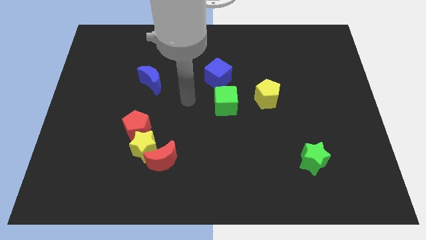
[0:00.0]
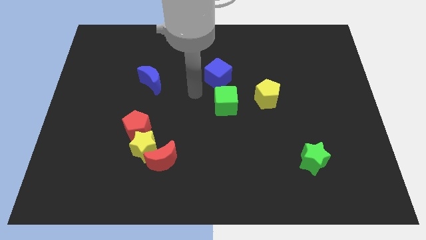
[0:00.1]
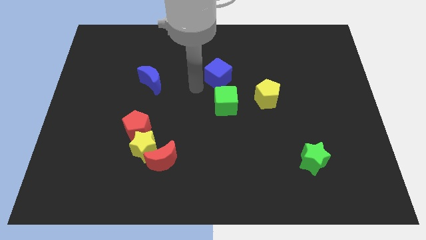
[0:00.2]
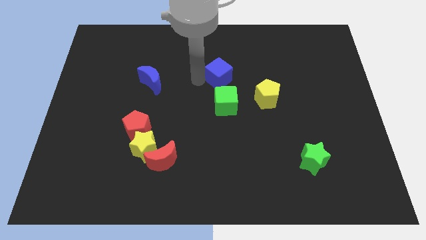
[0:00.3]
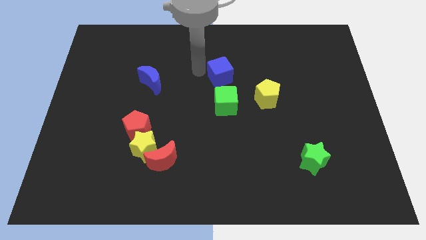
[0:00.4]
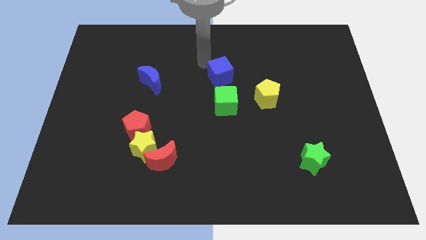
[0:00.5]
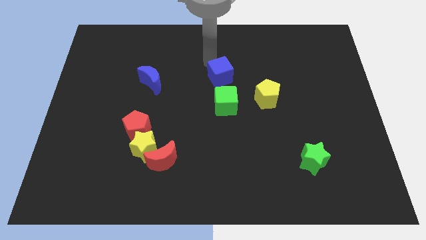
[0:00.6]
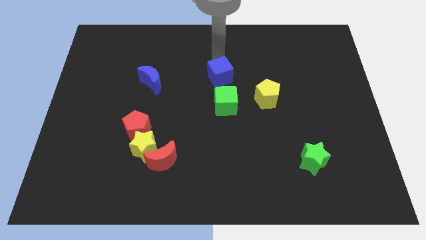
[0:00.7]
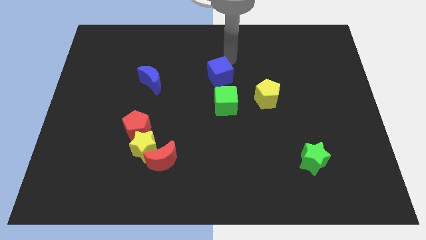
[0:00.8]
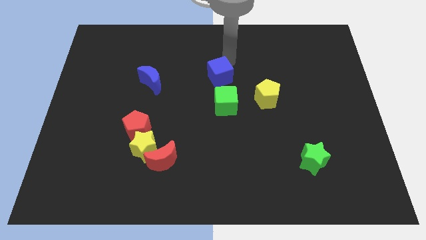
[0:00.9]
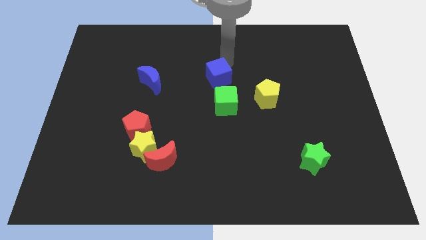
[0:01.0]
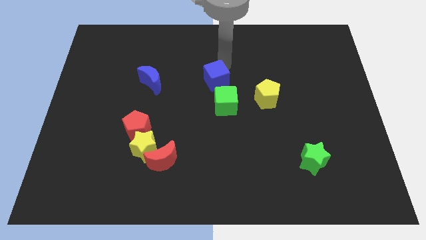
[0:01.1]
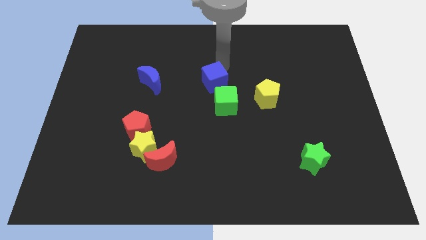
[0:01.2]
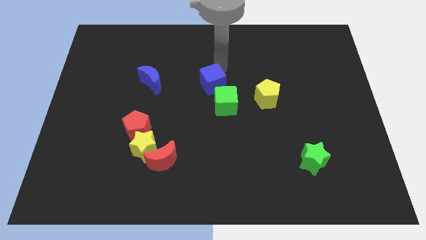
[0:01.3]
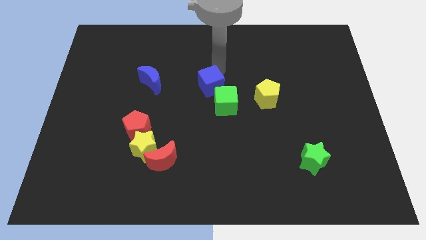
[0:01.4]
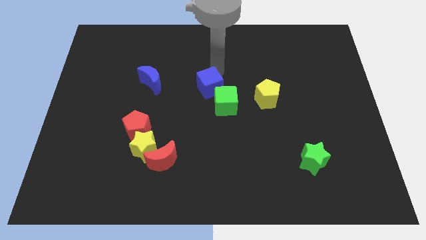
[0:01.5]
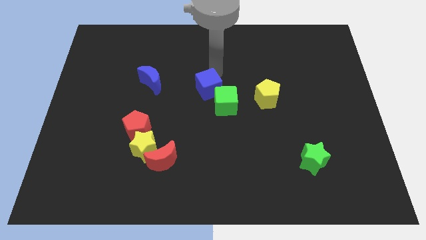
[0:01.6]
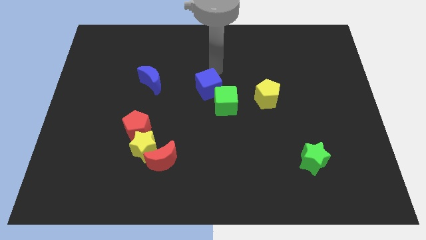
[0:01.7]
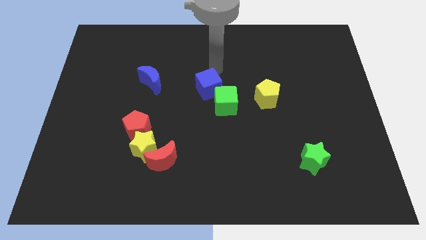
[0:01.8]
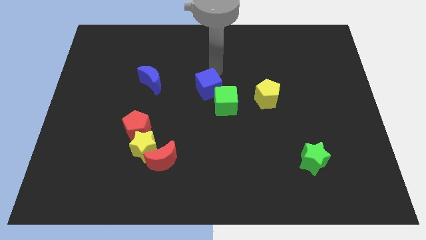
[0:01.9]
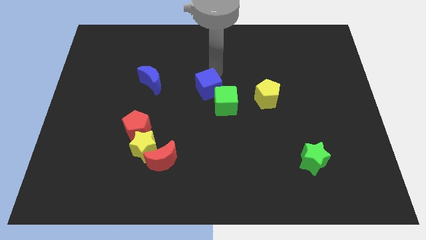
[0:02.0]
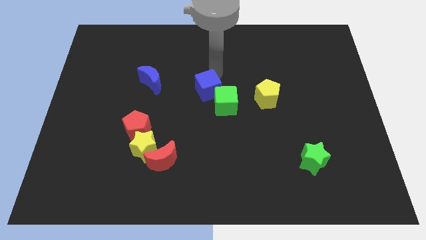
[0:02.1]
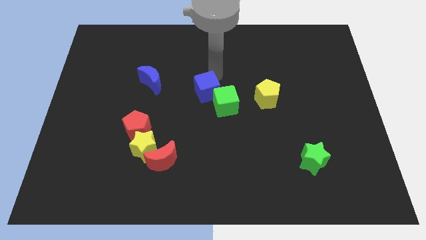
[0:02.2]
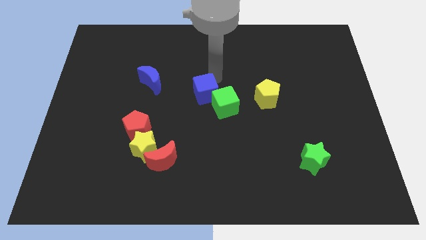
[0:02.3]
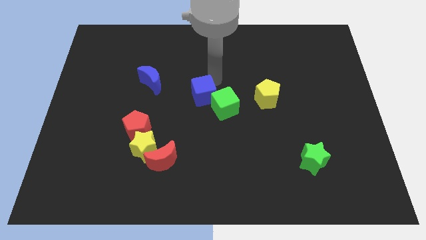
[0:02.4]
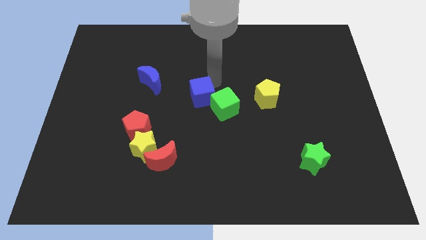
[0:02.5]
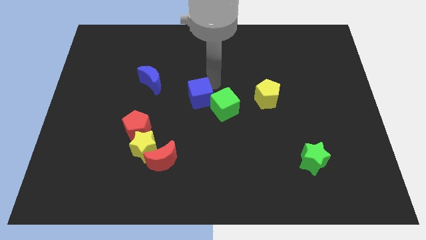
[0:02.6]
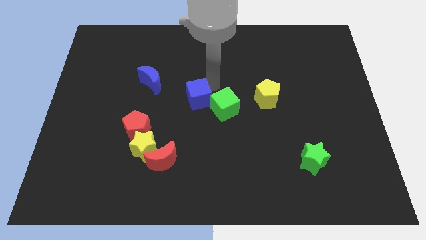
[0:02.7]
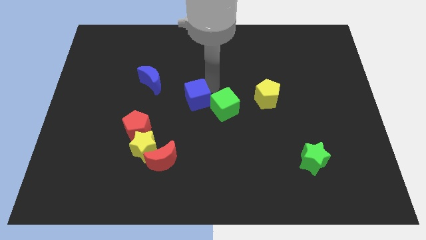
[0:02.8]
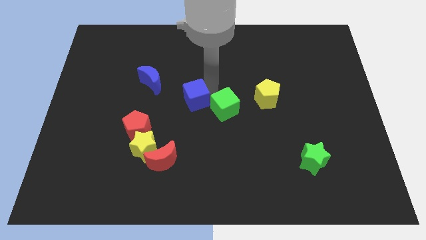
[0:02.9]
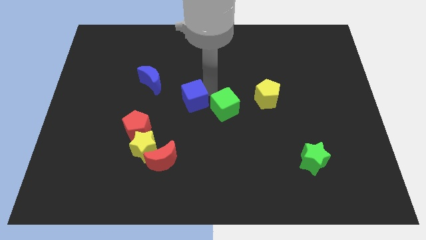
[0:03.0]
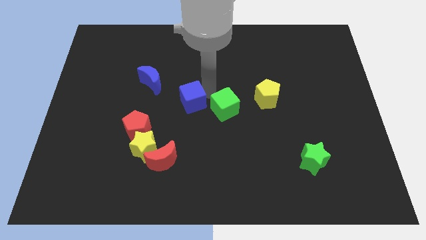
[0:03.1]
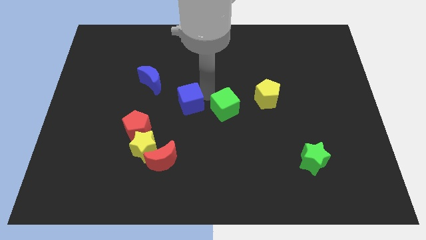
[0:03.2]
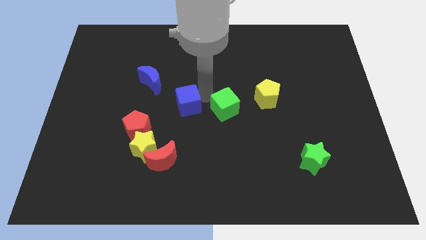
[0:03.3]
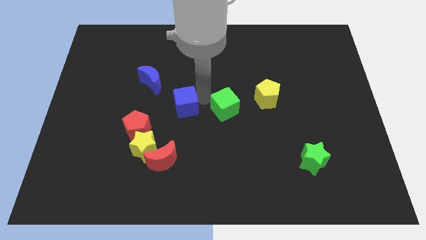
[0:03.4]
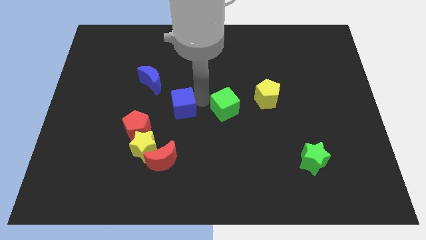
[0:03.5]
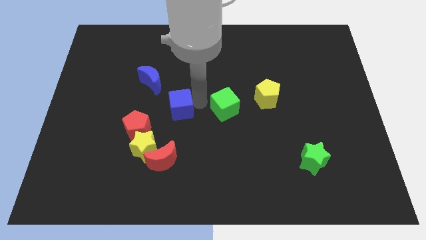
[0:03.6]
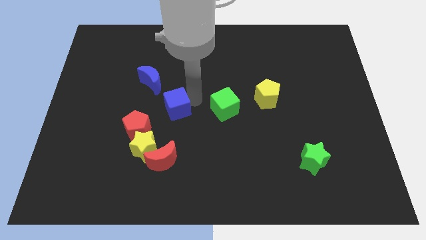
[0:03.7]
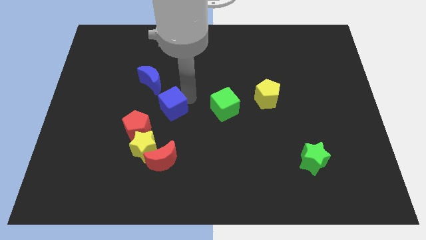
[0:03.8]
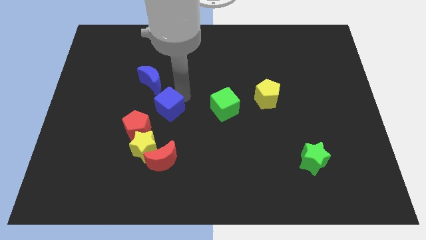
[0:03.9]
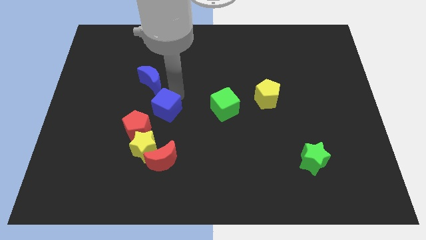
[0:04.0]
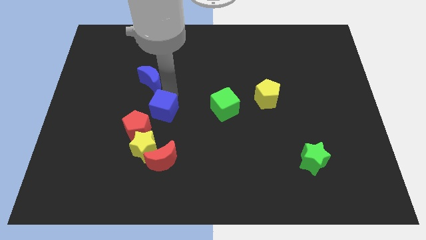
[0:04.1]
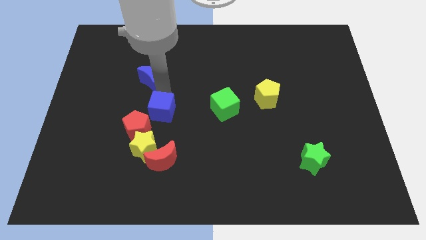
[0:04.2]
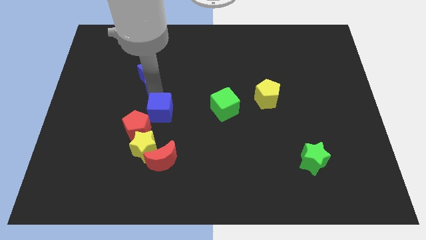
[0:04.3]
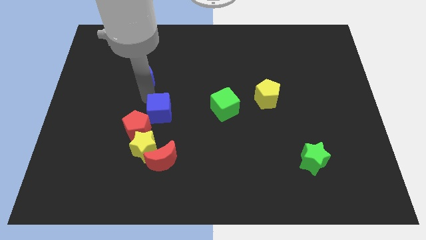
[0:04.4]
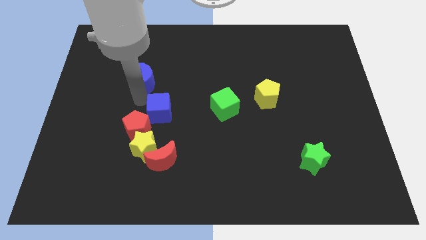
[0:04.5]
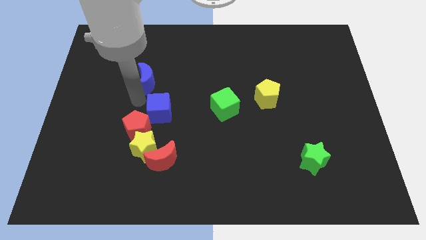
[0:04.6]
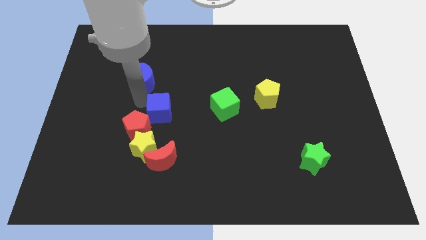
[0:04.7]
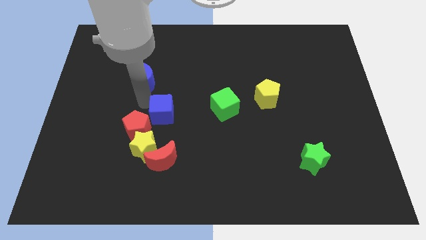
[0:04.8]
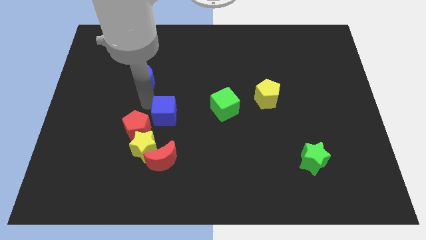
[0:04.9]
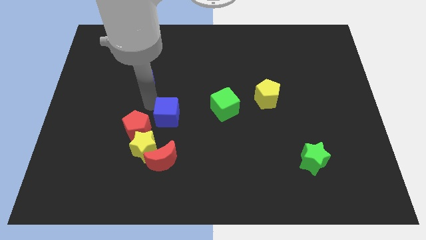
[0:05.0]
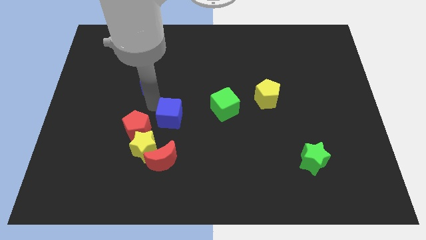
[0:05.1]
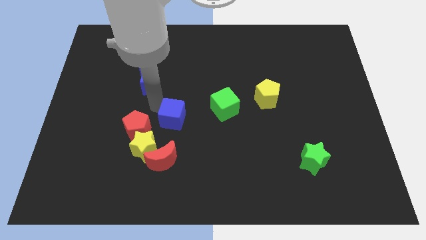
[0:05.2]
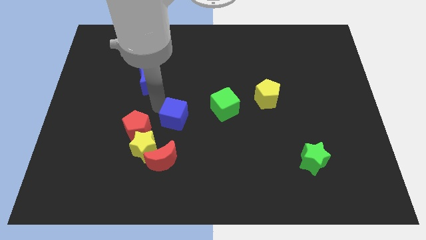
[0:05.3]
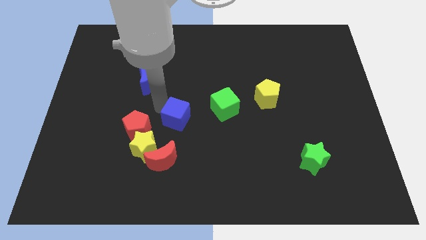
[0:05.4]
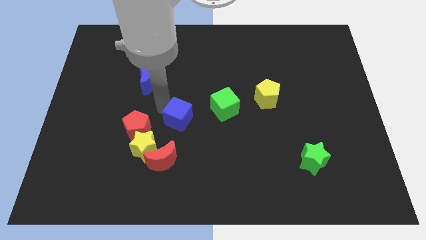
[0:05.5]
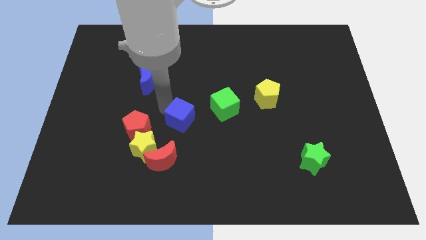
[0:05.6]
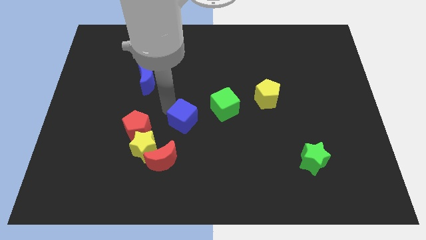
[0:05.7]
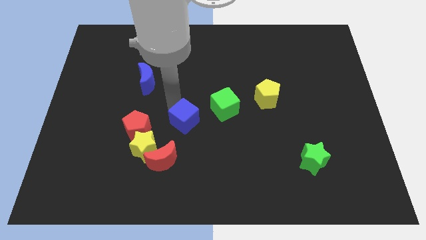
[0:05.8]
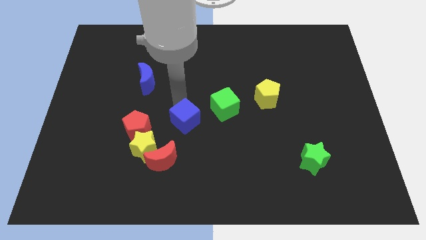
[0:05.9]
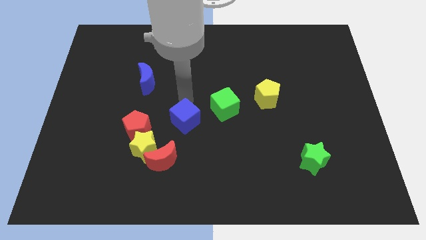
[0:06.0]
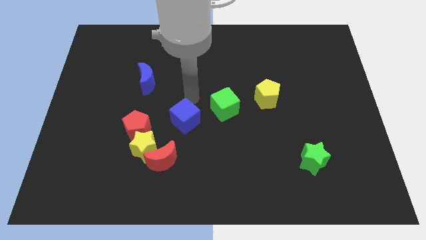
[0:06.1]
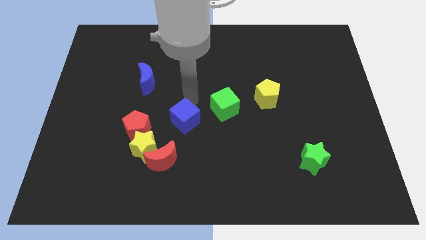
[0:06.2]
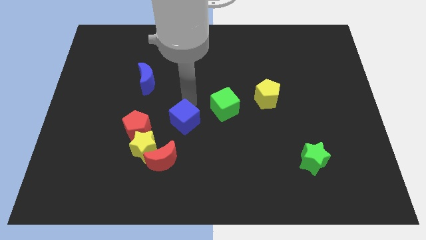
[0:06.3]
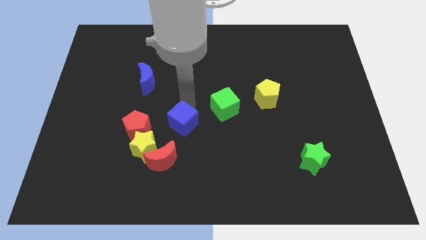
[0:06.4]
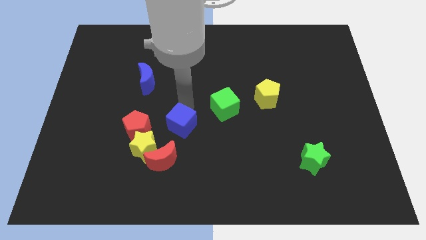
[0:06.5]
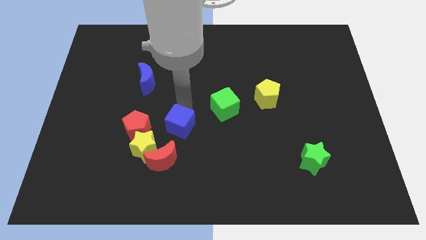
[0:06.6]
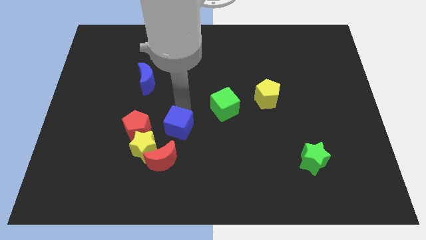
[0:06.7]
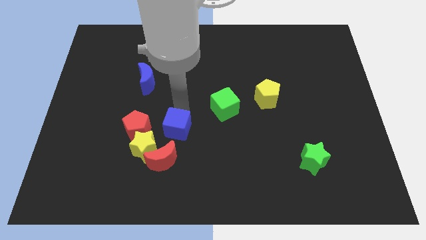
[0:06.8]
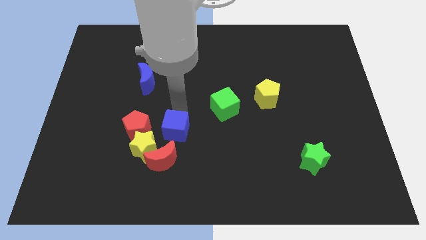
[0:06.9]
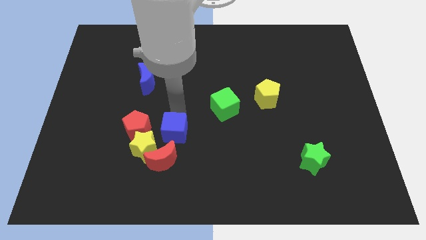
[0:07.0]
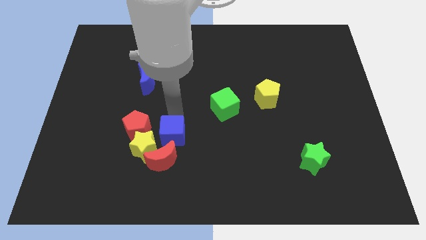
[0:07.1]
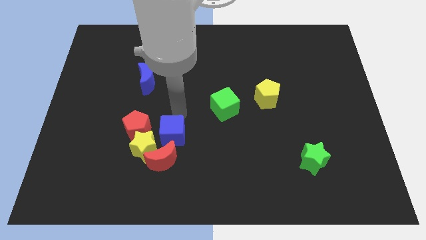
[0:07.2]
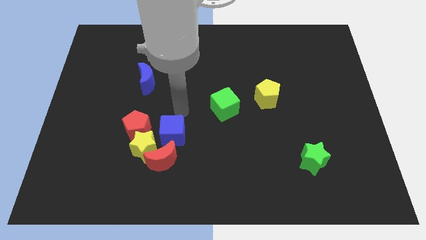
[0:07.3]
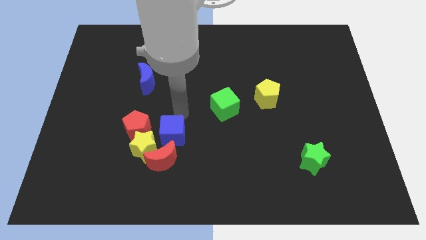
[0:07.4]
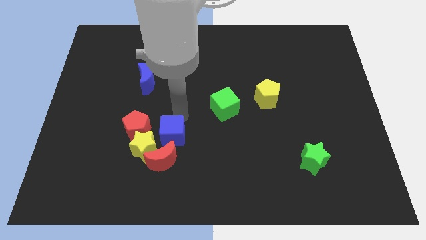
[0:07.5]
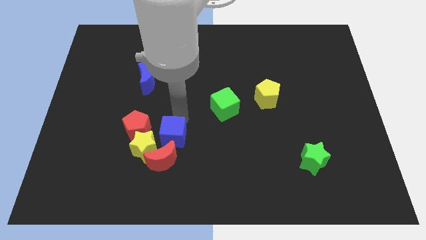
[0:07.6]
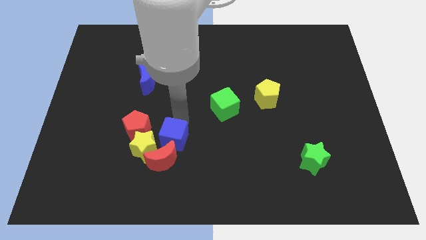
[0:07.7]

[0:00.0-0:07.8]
put the blue cube to the red moon
